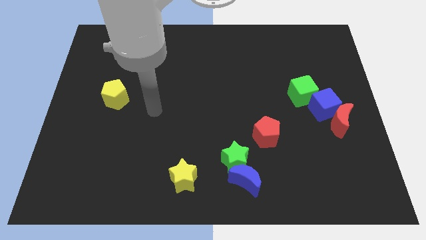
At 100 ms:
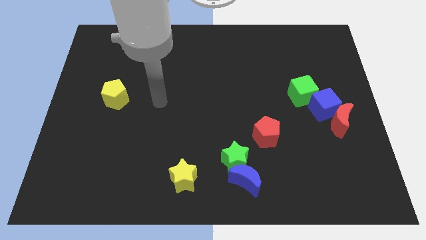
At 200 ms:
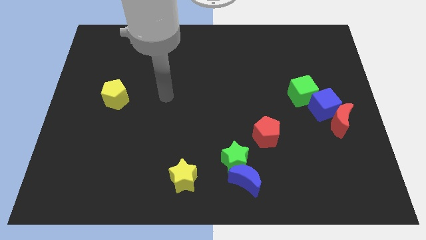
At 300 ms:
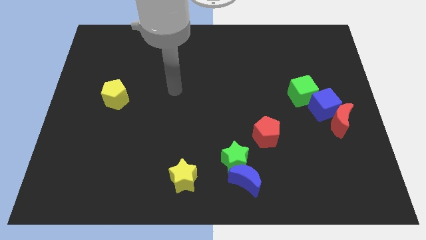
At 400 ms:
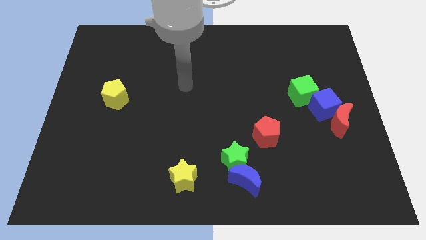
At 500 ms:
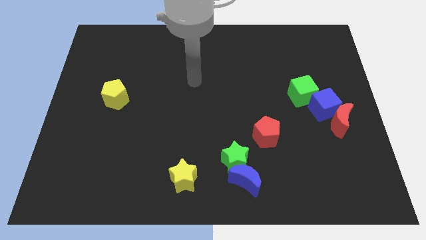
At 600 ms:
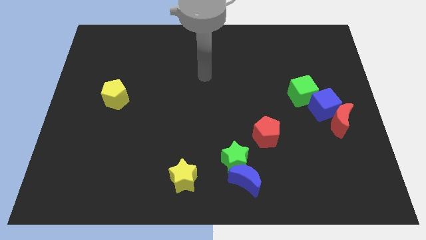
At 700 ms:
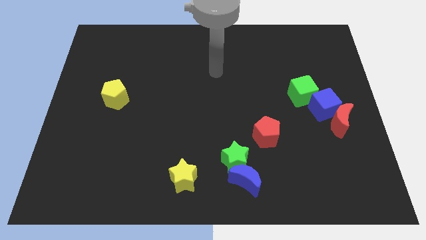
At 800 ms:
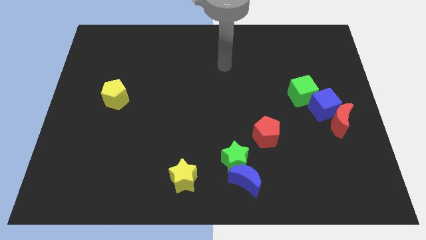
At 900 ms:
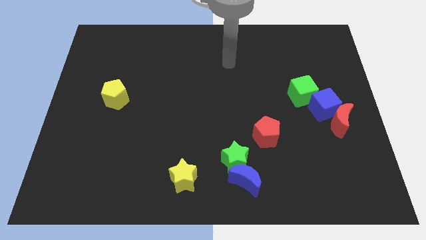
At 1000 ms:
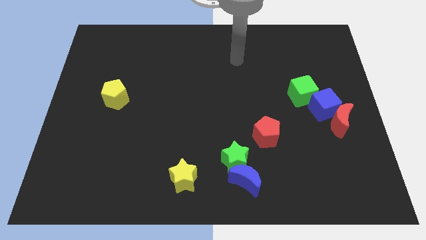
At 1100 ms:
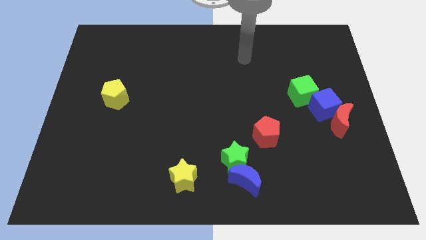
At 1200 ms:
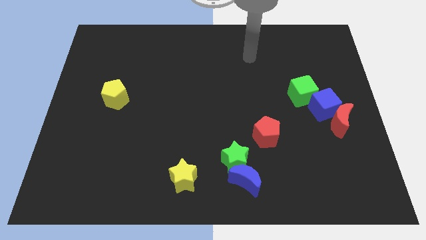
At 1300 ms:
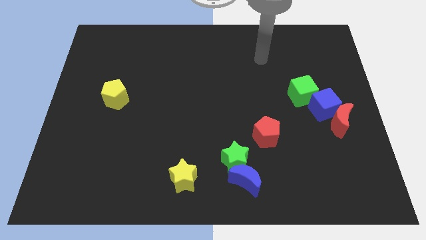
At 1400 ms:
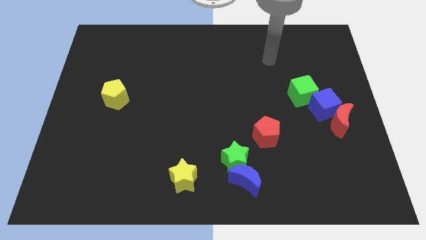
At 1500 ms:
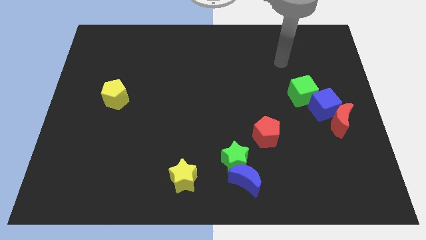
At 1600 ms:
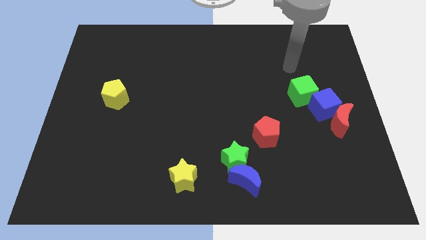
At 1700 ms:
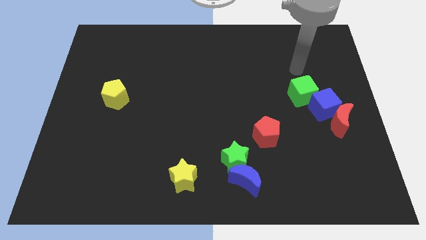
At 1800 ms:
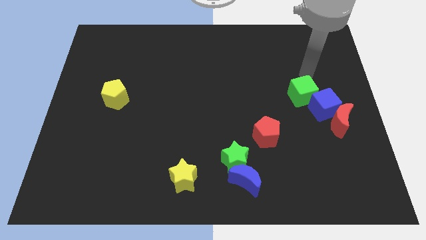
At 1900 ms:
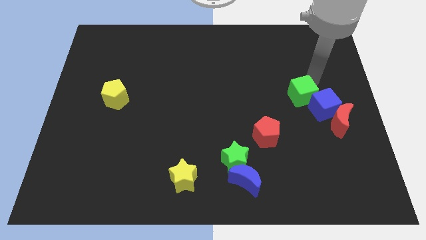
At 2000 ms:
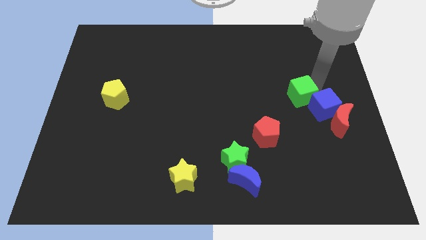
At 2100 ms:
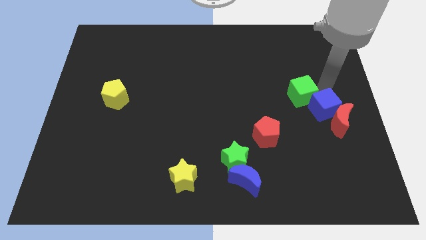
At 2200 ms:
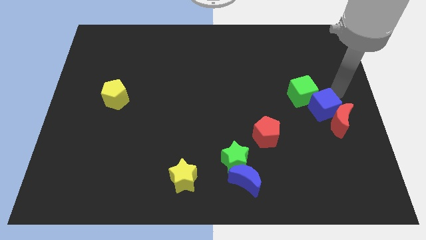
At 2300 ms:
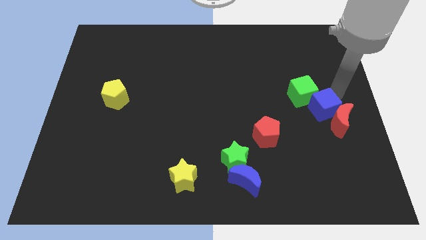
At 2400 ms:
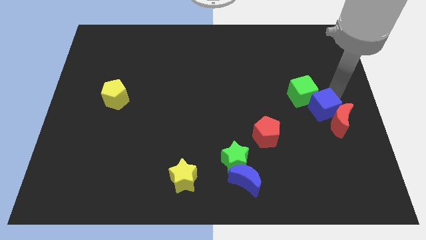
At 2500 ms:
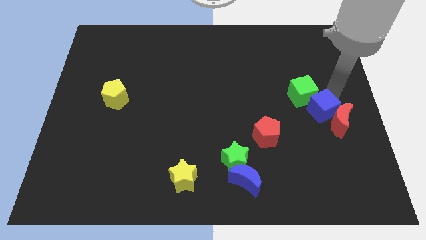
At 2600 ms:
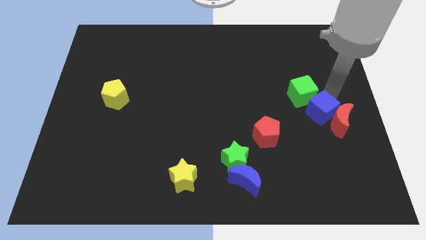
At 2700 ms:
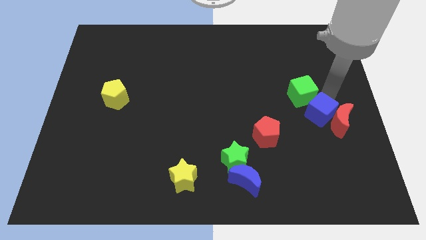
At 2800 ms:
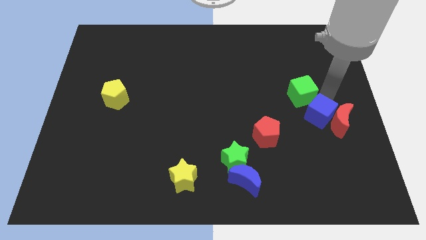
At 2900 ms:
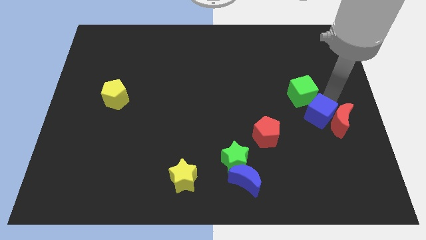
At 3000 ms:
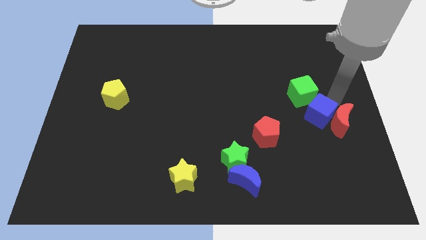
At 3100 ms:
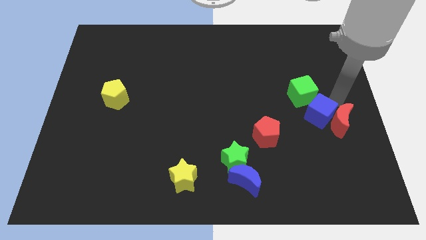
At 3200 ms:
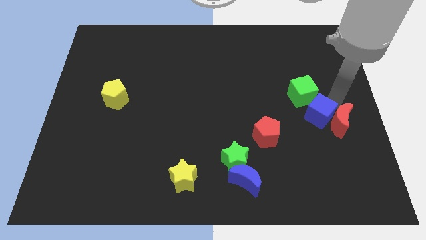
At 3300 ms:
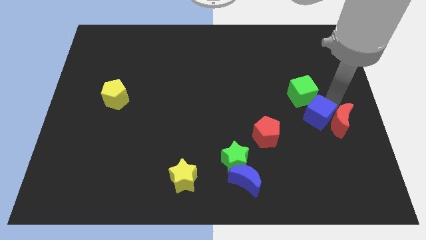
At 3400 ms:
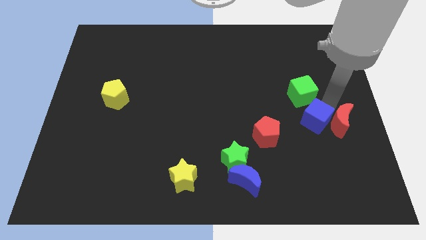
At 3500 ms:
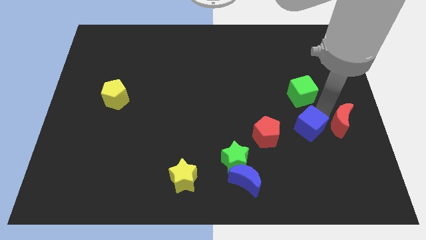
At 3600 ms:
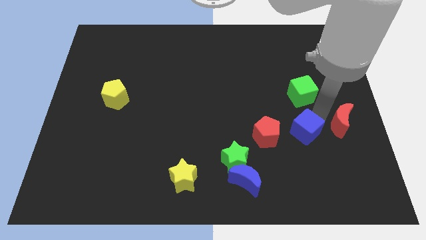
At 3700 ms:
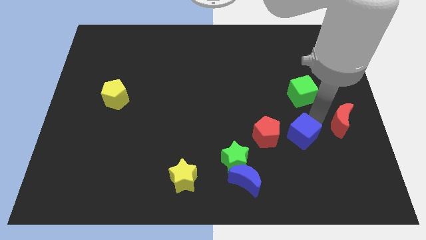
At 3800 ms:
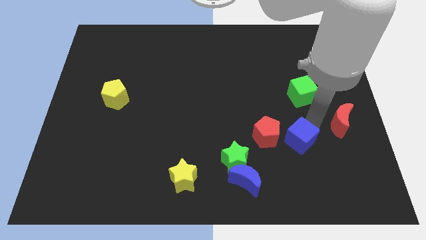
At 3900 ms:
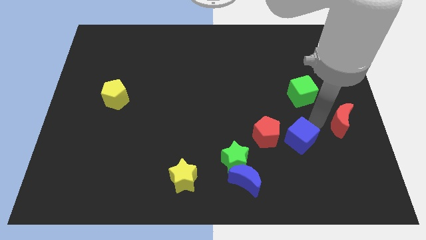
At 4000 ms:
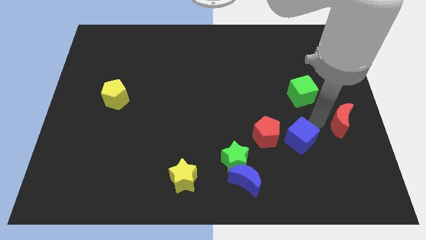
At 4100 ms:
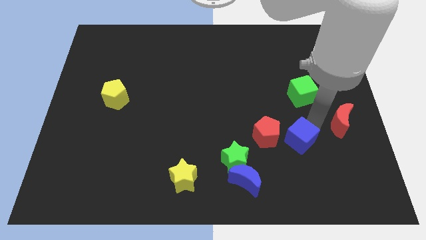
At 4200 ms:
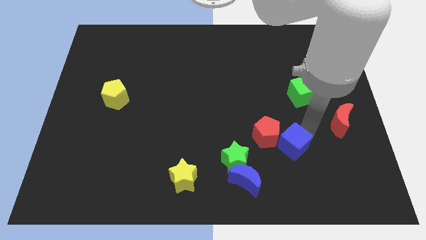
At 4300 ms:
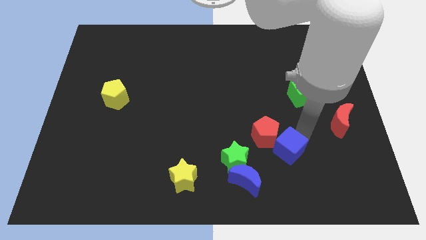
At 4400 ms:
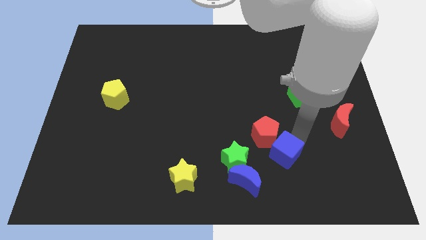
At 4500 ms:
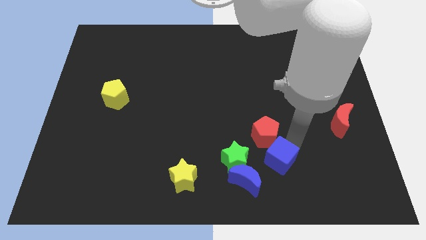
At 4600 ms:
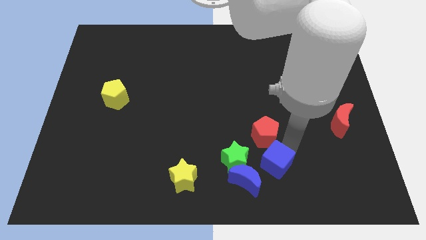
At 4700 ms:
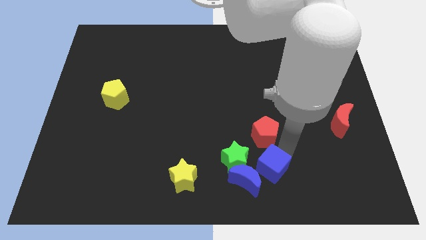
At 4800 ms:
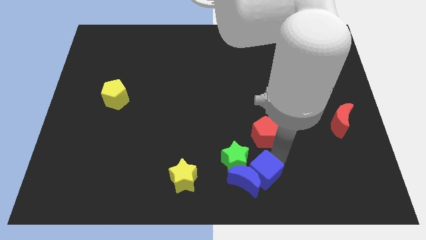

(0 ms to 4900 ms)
slide the blue cube to the bottom

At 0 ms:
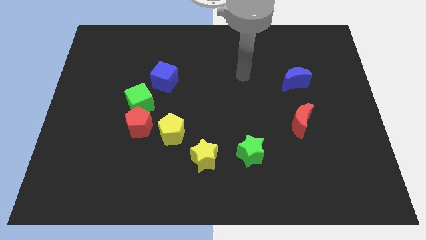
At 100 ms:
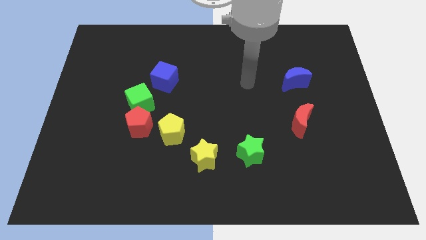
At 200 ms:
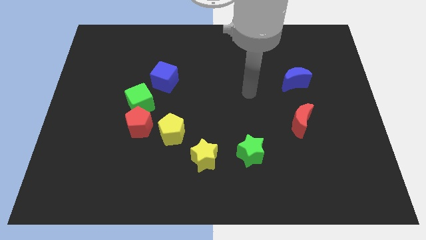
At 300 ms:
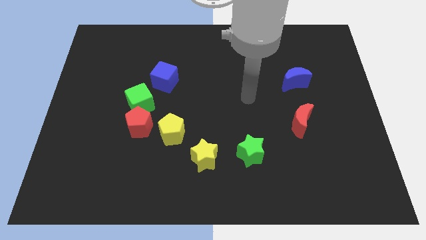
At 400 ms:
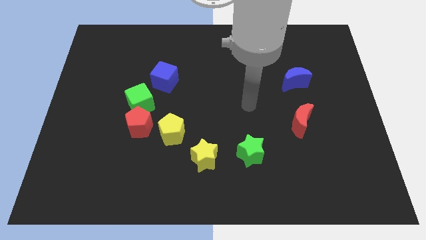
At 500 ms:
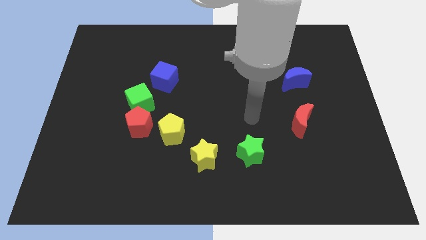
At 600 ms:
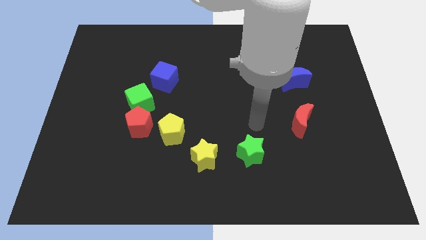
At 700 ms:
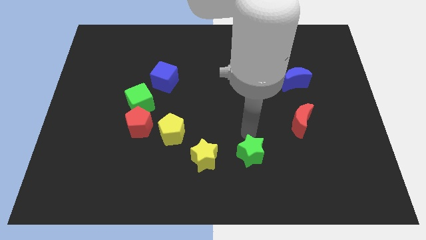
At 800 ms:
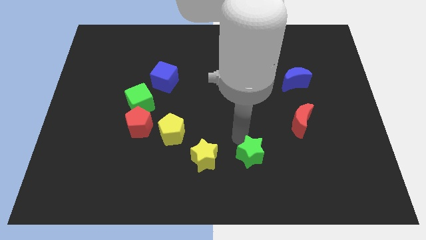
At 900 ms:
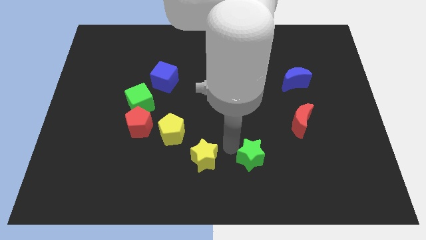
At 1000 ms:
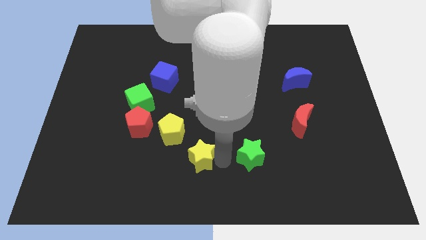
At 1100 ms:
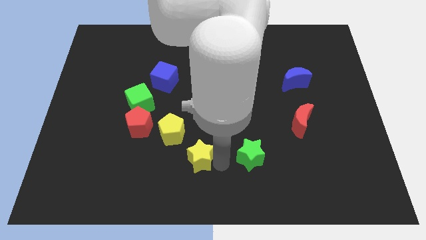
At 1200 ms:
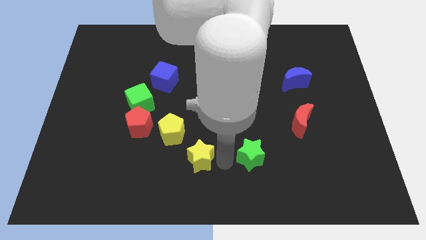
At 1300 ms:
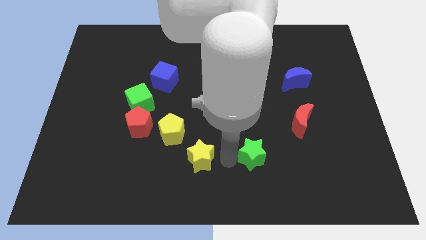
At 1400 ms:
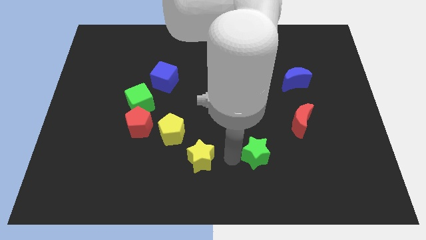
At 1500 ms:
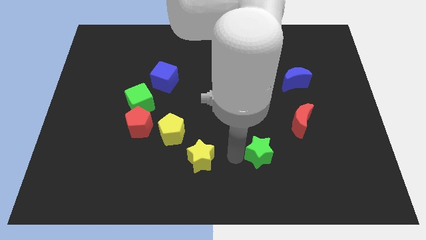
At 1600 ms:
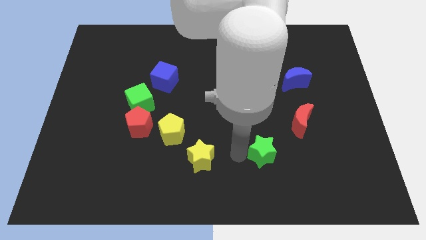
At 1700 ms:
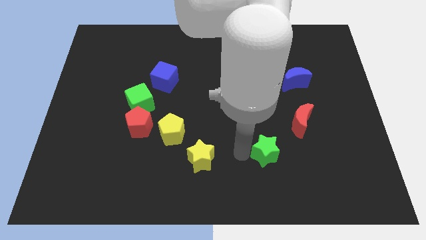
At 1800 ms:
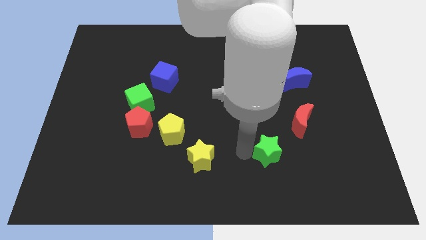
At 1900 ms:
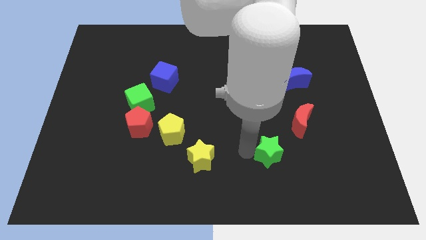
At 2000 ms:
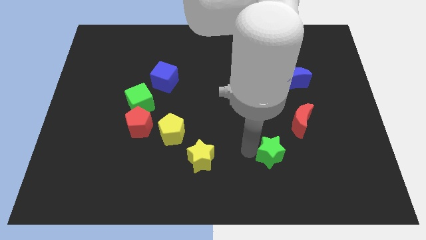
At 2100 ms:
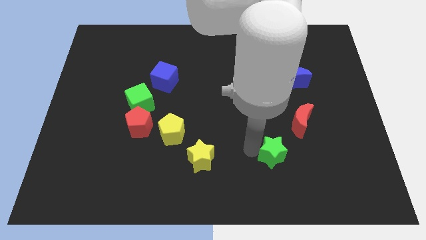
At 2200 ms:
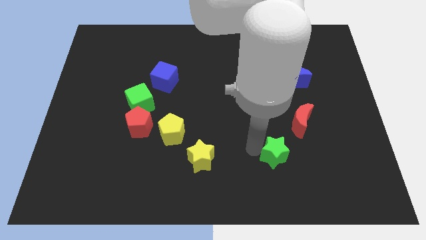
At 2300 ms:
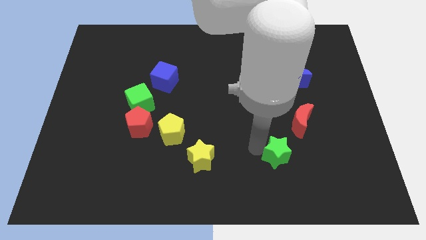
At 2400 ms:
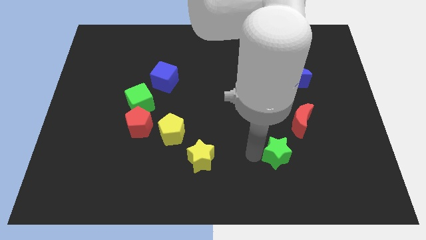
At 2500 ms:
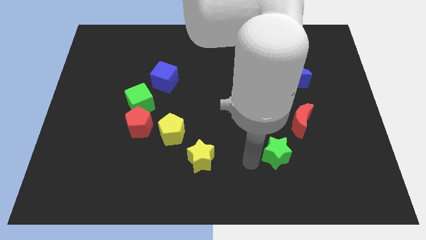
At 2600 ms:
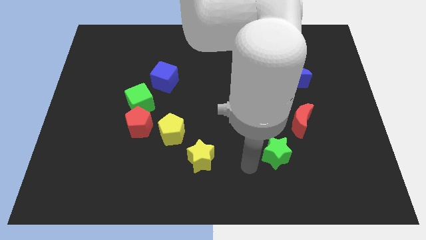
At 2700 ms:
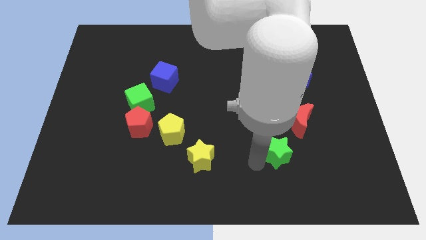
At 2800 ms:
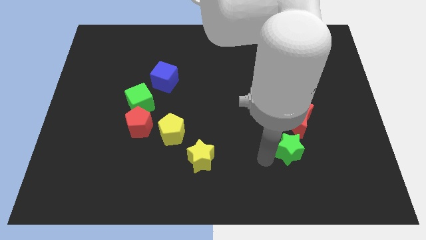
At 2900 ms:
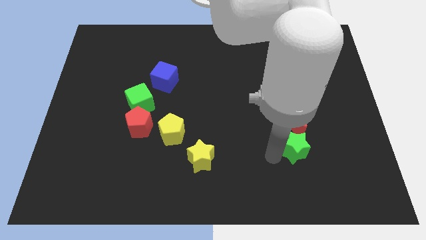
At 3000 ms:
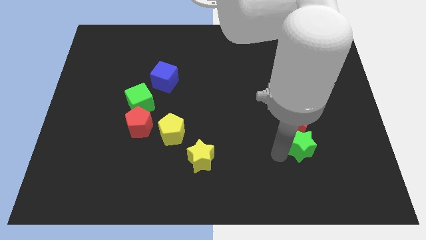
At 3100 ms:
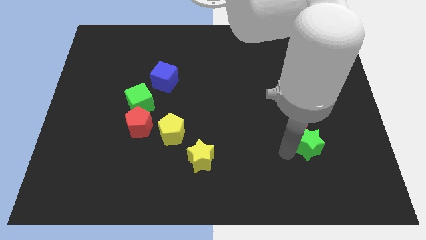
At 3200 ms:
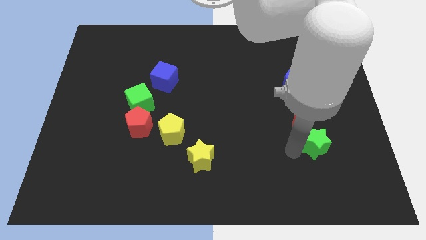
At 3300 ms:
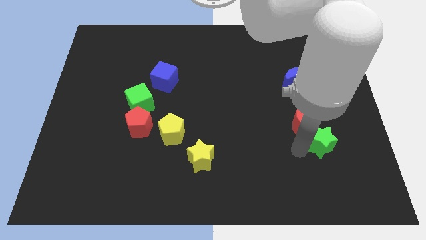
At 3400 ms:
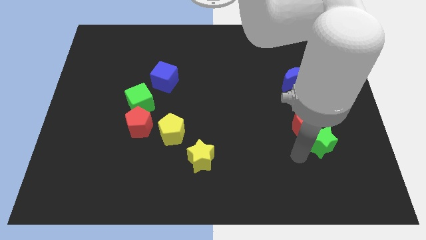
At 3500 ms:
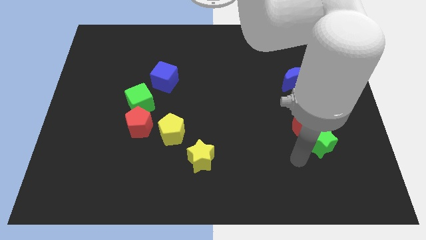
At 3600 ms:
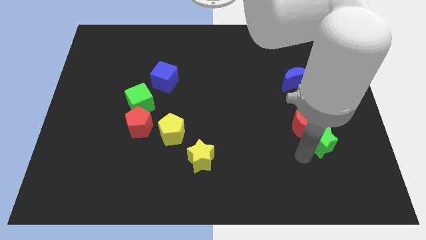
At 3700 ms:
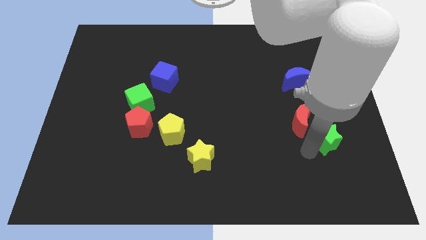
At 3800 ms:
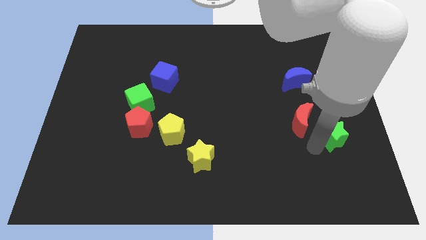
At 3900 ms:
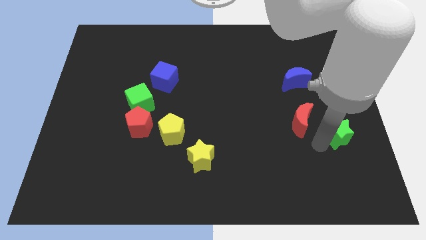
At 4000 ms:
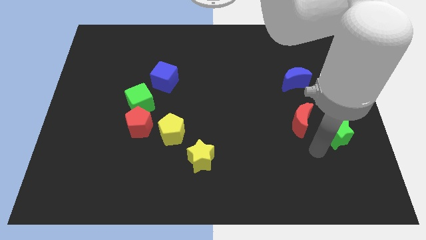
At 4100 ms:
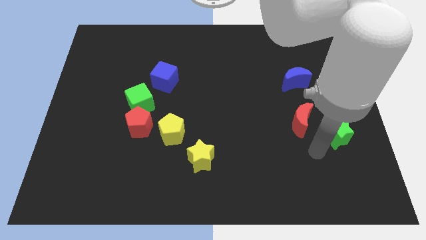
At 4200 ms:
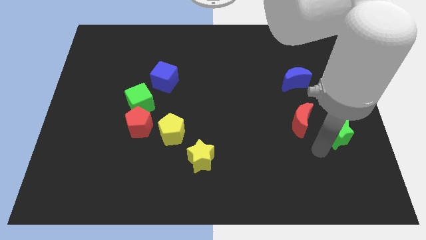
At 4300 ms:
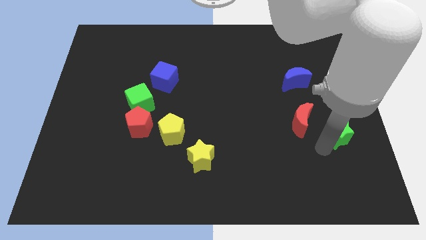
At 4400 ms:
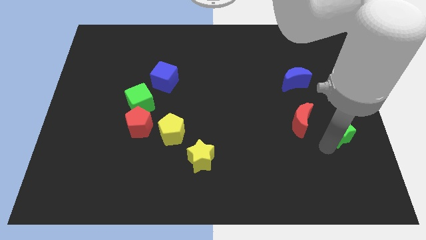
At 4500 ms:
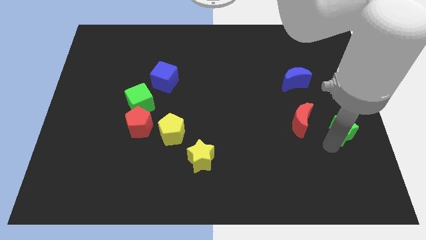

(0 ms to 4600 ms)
push the green star to the right side
